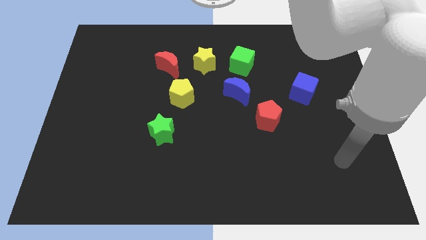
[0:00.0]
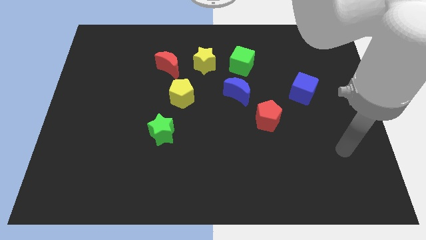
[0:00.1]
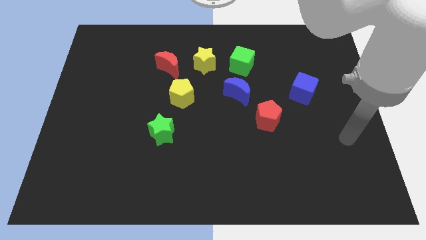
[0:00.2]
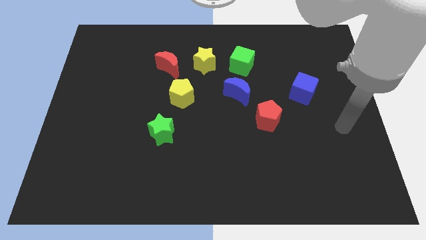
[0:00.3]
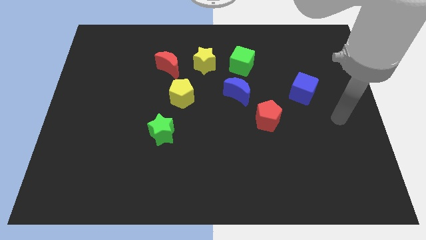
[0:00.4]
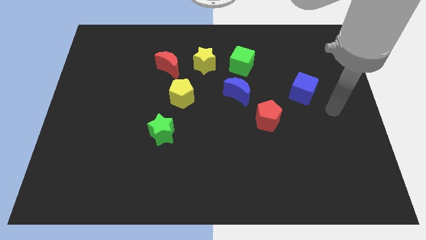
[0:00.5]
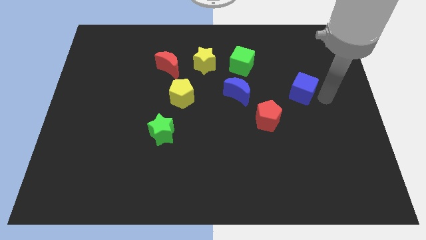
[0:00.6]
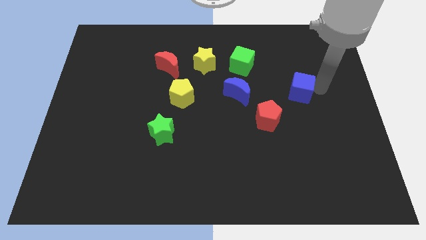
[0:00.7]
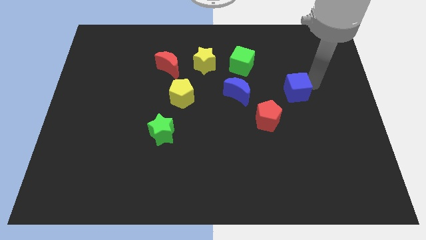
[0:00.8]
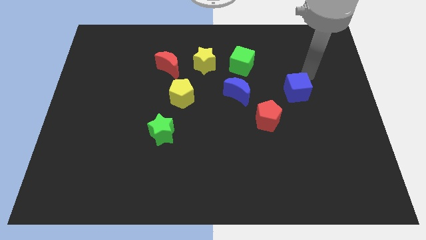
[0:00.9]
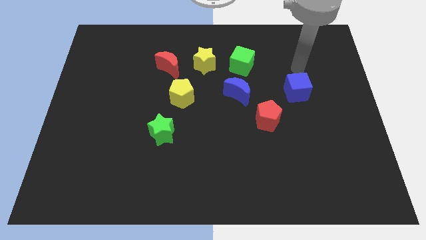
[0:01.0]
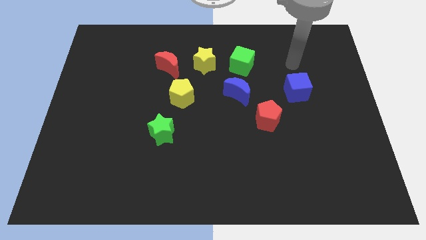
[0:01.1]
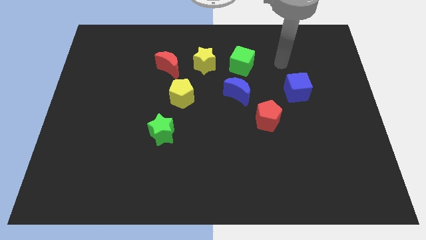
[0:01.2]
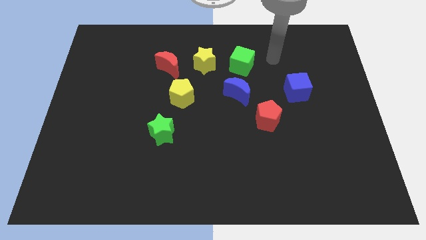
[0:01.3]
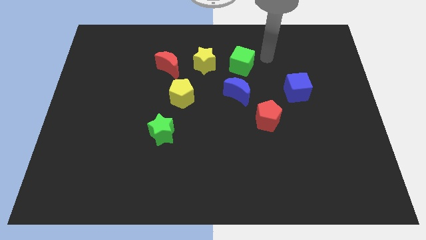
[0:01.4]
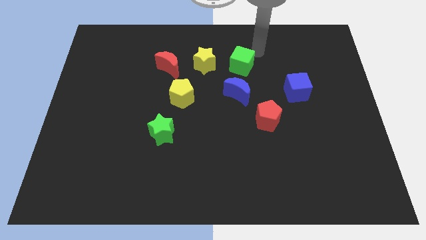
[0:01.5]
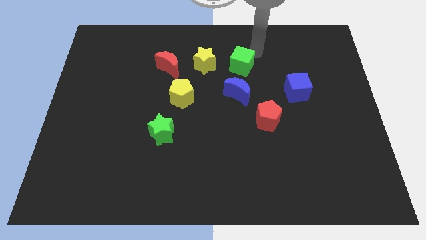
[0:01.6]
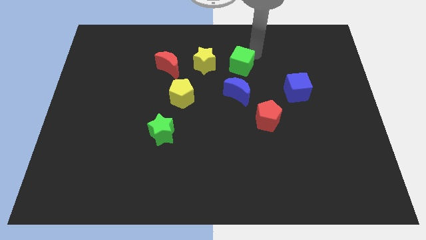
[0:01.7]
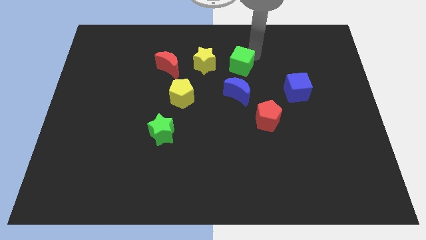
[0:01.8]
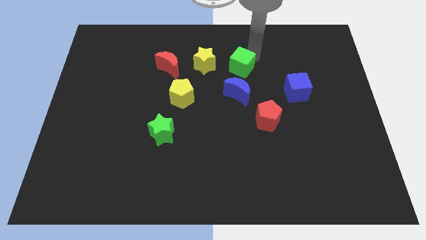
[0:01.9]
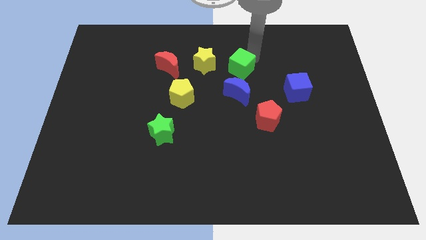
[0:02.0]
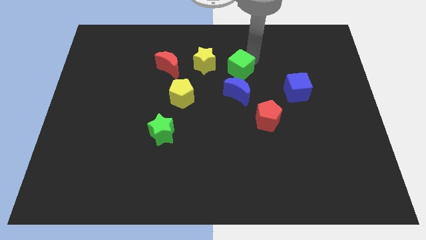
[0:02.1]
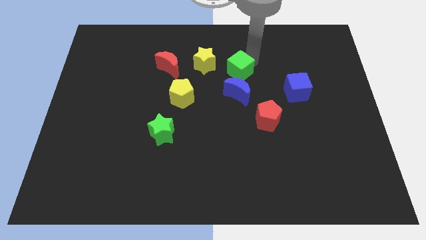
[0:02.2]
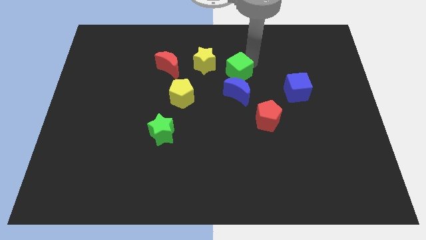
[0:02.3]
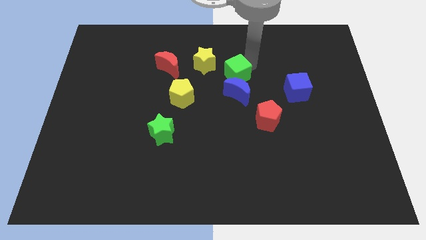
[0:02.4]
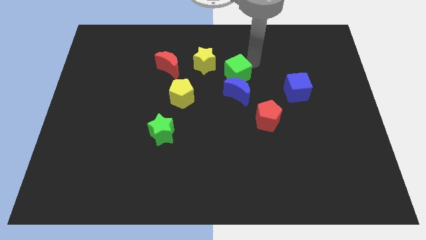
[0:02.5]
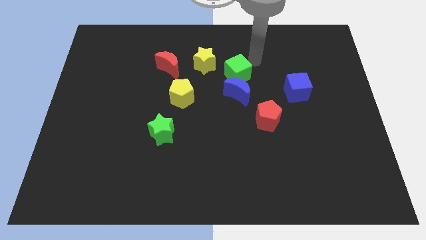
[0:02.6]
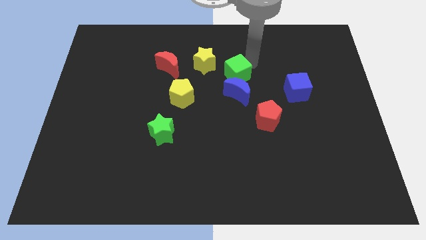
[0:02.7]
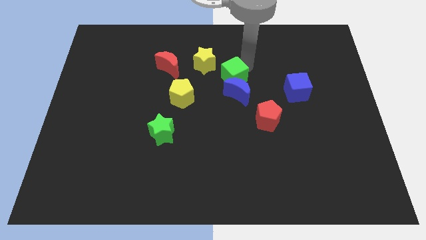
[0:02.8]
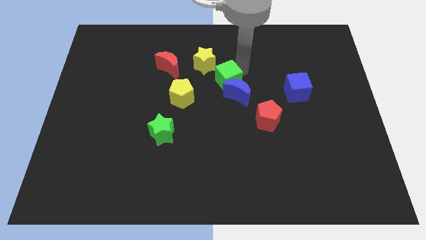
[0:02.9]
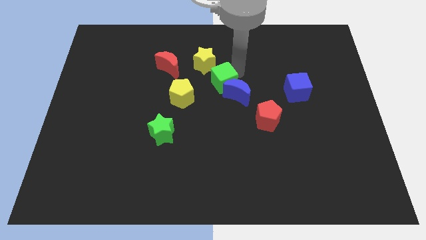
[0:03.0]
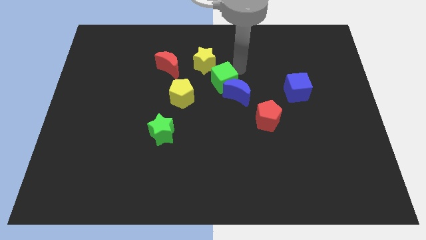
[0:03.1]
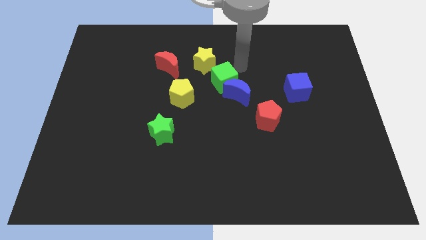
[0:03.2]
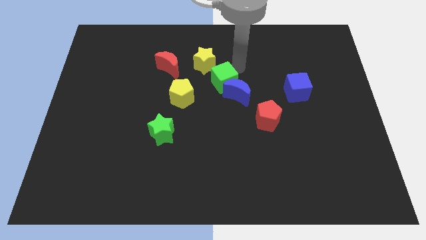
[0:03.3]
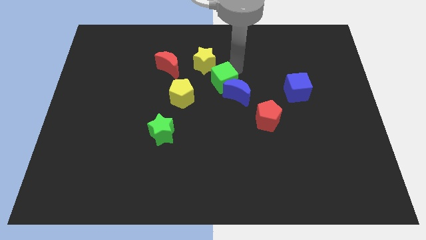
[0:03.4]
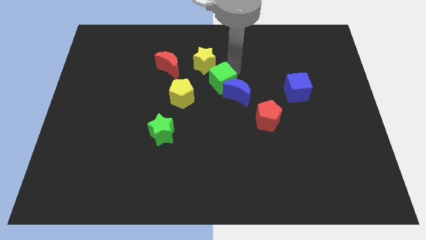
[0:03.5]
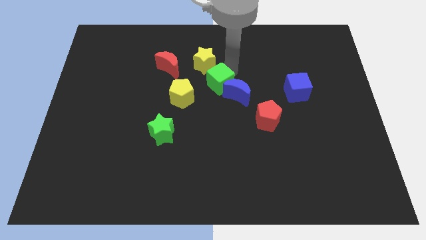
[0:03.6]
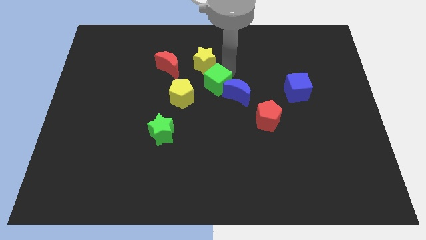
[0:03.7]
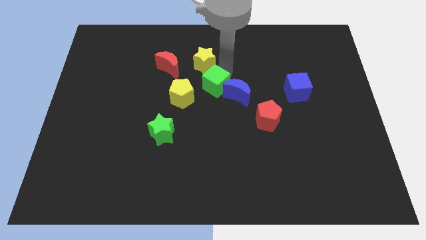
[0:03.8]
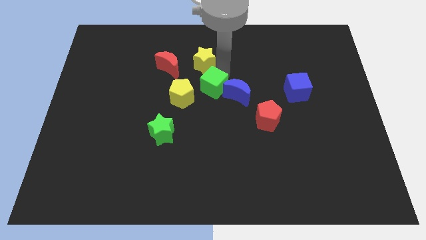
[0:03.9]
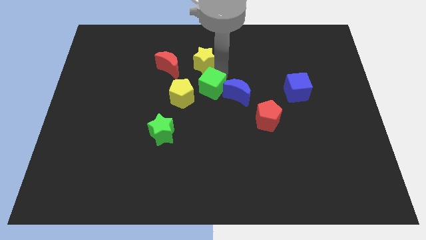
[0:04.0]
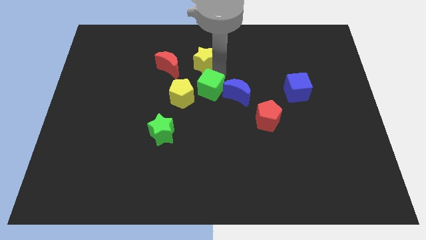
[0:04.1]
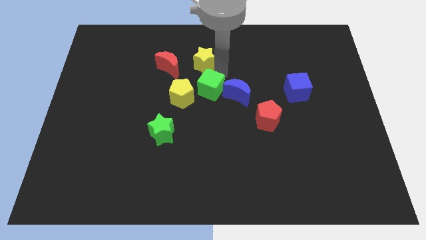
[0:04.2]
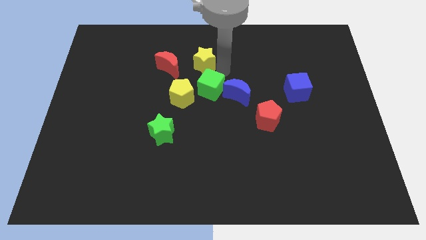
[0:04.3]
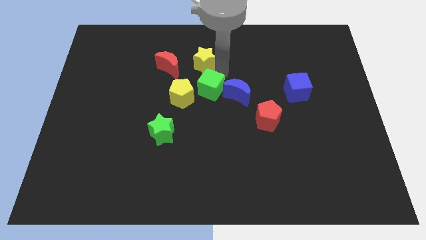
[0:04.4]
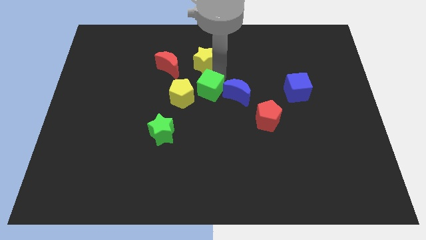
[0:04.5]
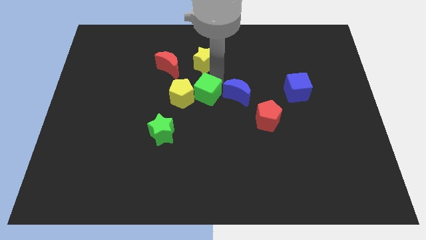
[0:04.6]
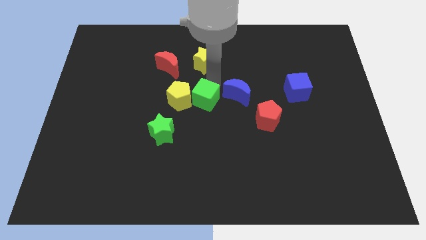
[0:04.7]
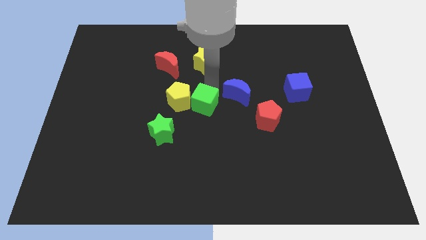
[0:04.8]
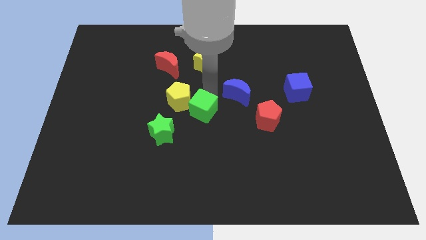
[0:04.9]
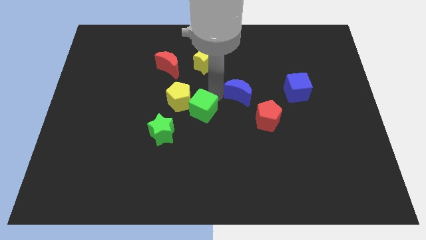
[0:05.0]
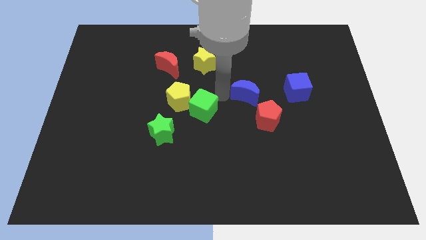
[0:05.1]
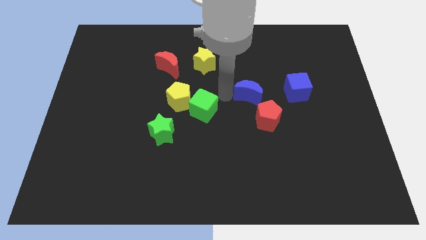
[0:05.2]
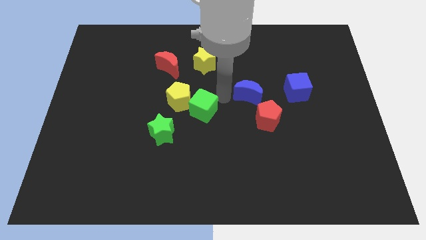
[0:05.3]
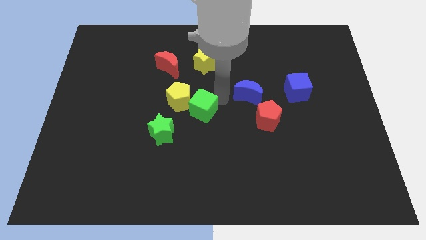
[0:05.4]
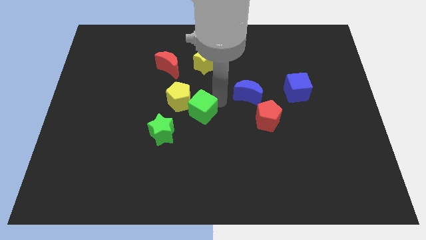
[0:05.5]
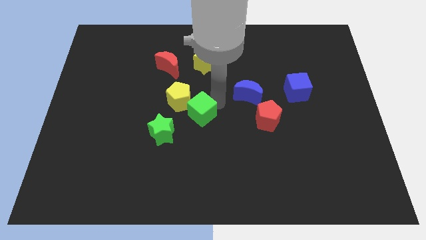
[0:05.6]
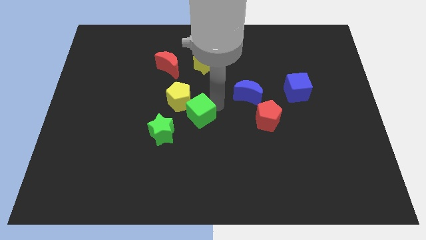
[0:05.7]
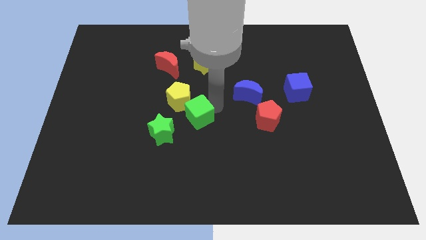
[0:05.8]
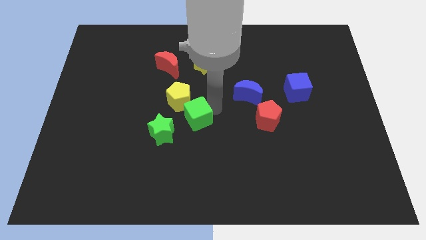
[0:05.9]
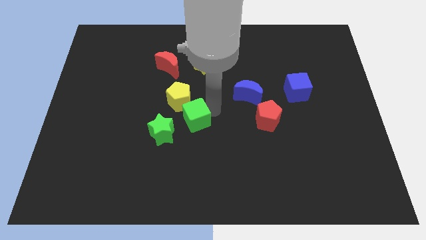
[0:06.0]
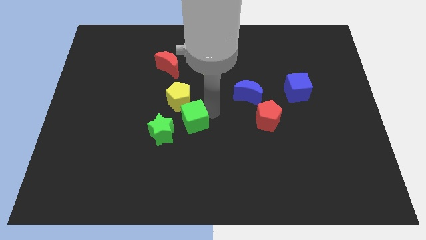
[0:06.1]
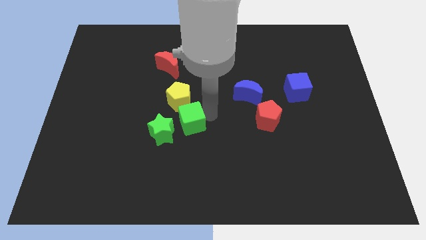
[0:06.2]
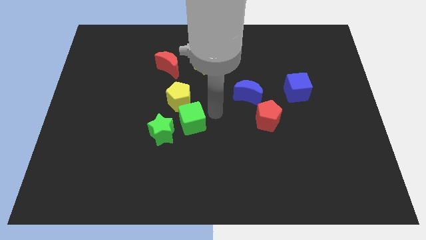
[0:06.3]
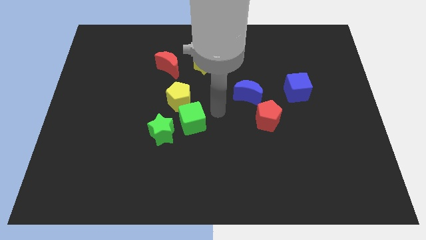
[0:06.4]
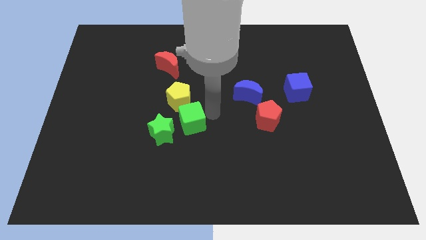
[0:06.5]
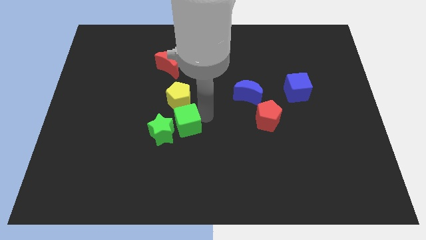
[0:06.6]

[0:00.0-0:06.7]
push the green cube next to the green star

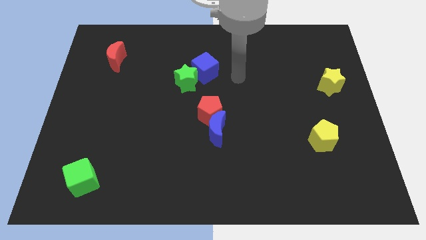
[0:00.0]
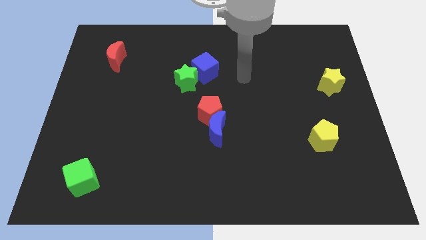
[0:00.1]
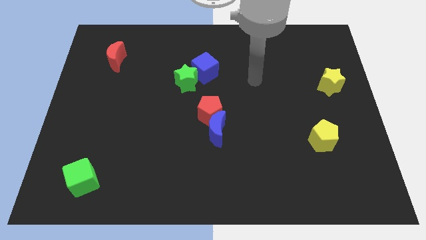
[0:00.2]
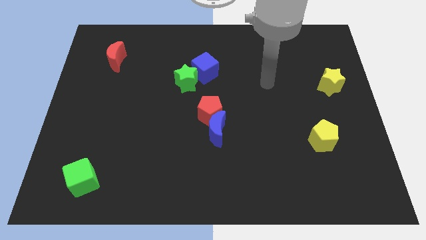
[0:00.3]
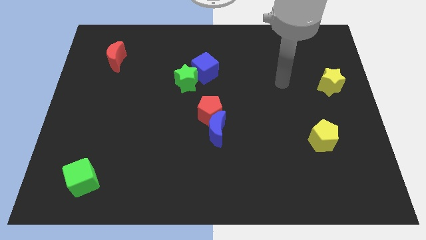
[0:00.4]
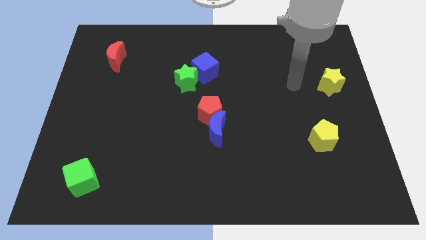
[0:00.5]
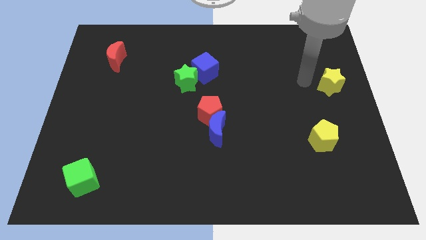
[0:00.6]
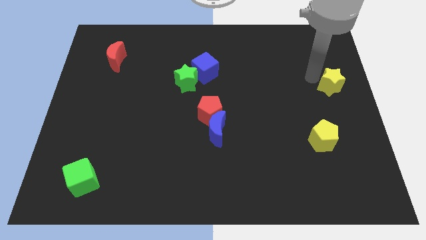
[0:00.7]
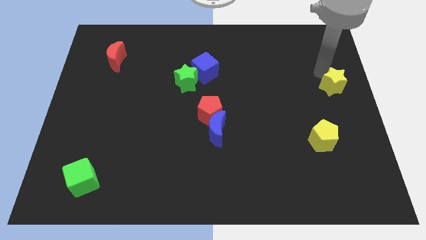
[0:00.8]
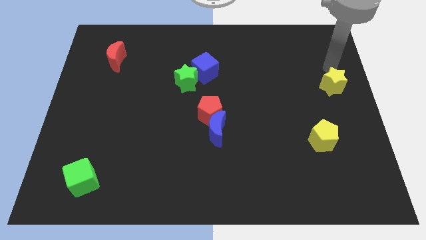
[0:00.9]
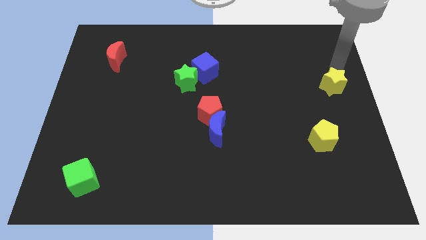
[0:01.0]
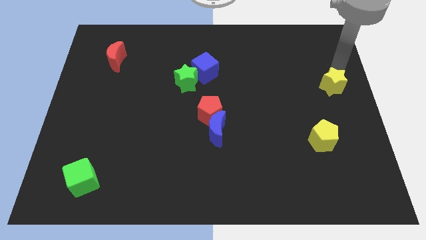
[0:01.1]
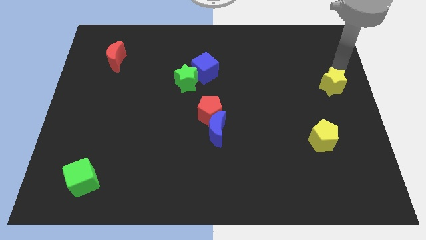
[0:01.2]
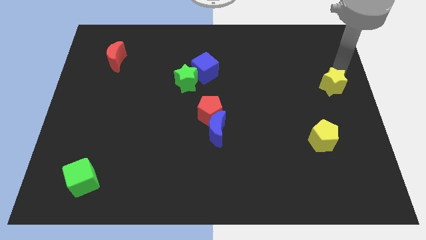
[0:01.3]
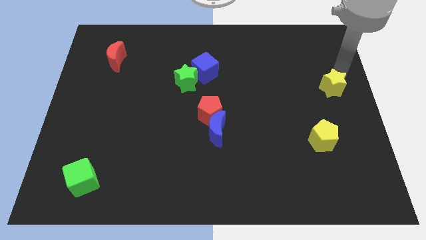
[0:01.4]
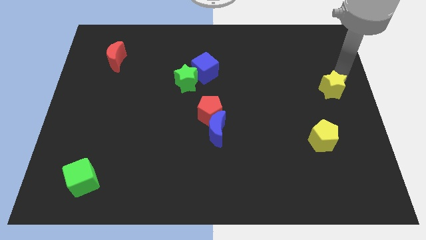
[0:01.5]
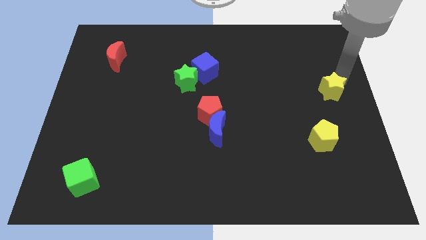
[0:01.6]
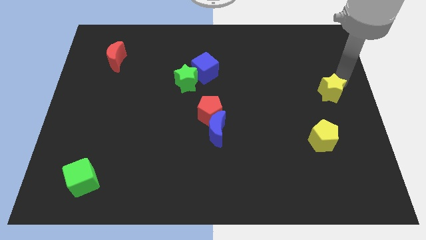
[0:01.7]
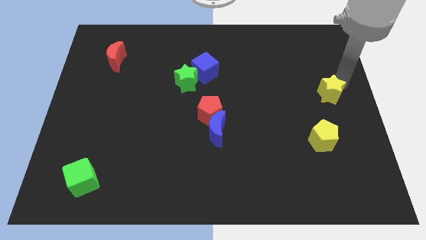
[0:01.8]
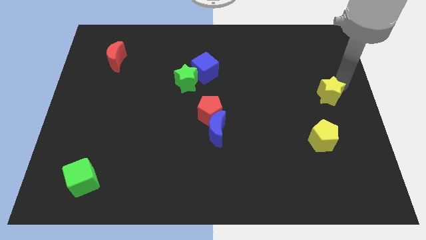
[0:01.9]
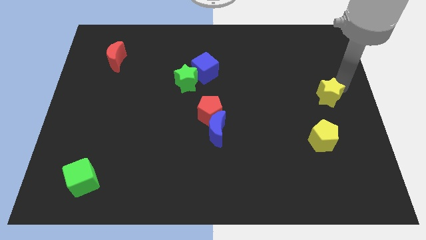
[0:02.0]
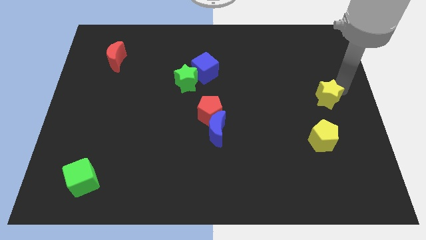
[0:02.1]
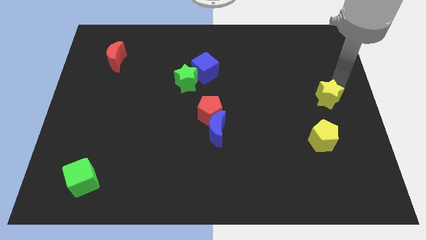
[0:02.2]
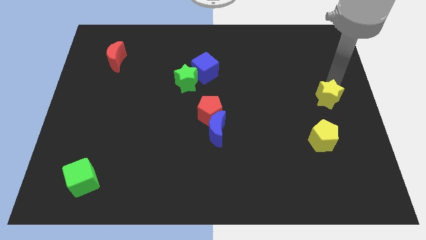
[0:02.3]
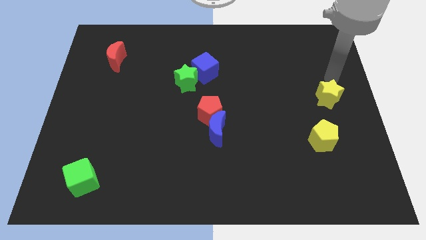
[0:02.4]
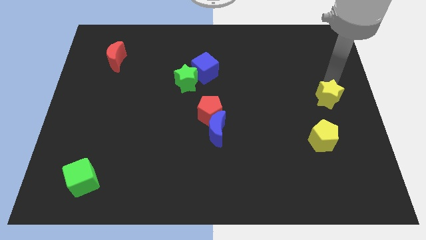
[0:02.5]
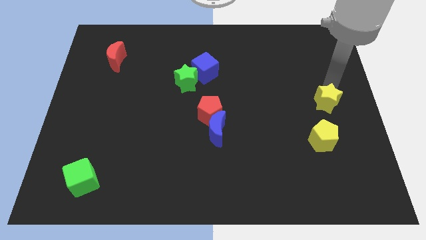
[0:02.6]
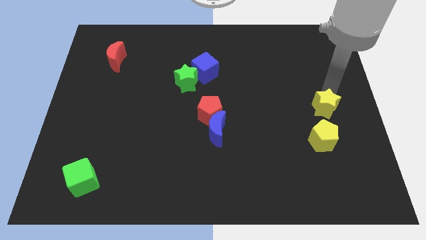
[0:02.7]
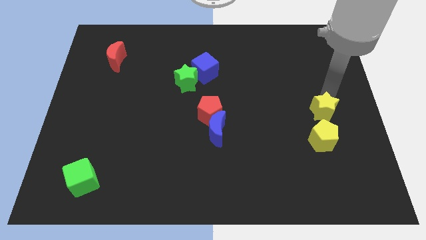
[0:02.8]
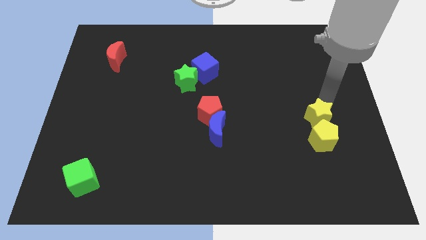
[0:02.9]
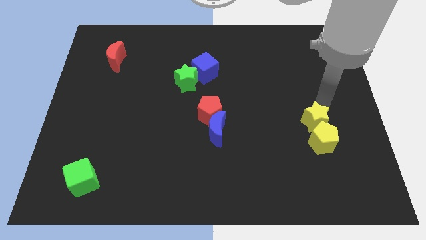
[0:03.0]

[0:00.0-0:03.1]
push the yellow star to the yellow pentagon
